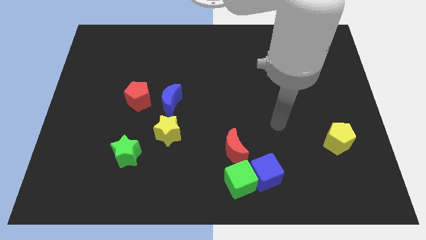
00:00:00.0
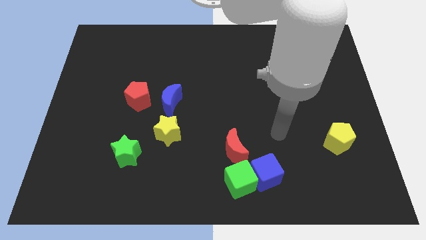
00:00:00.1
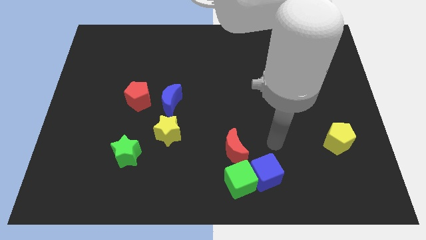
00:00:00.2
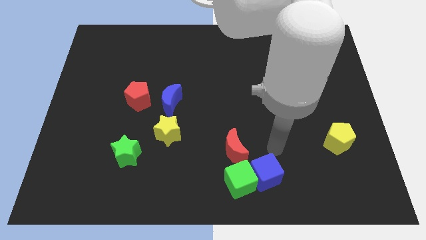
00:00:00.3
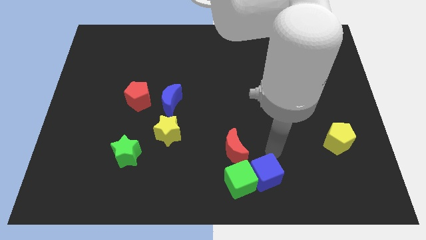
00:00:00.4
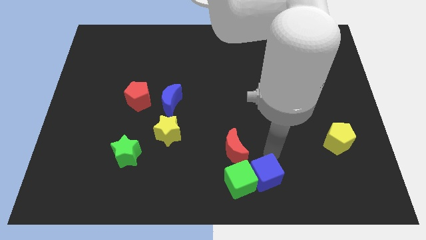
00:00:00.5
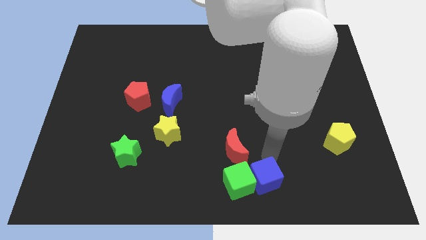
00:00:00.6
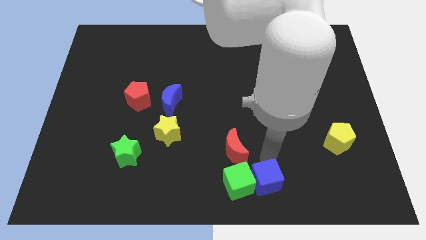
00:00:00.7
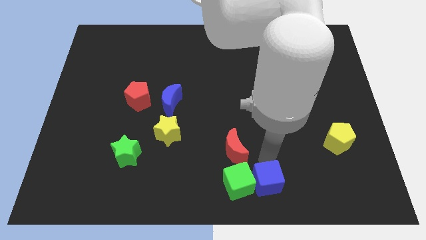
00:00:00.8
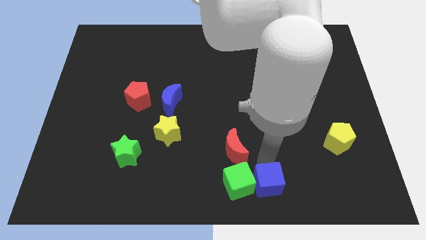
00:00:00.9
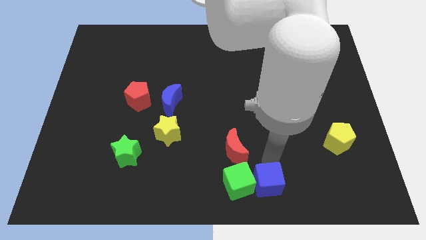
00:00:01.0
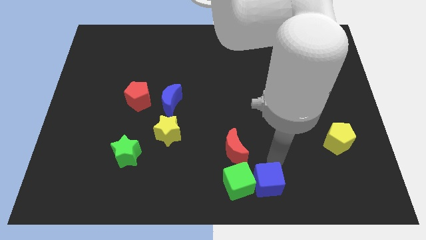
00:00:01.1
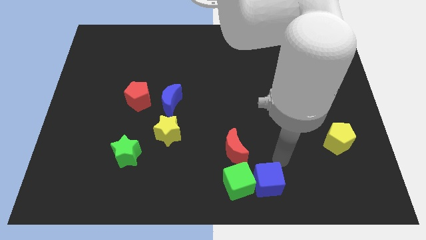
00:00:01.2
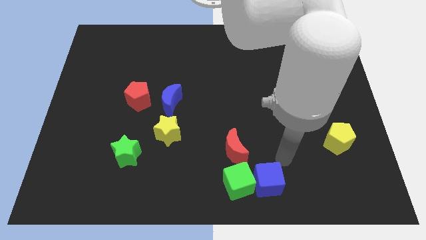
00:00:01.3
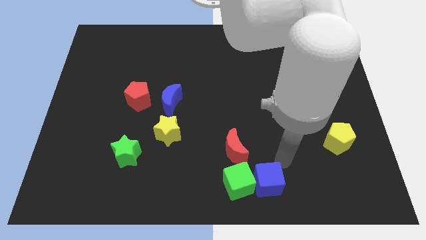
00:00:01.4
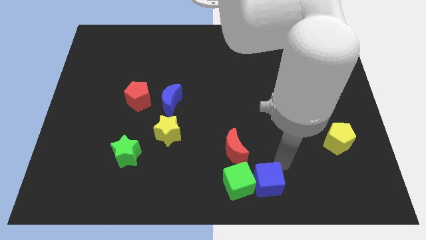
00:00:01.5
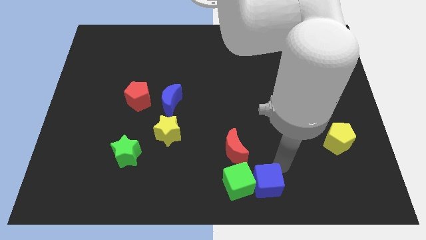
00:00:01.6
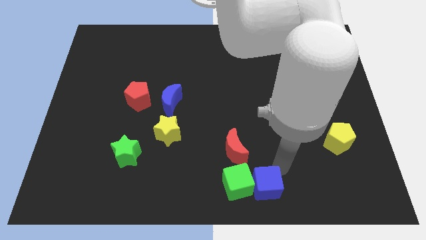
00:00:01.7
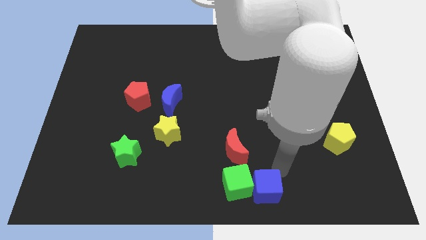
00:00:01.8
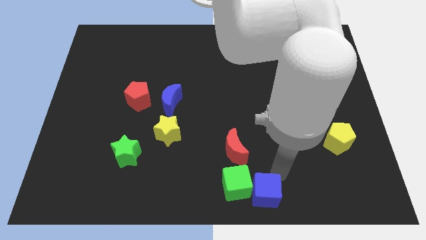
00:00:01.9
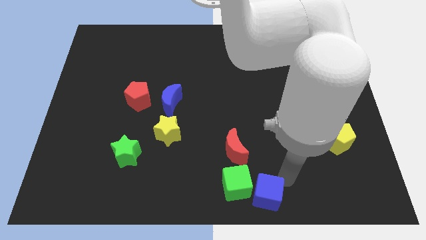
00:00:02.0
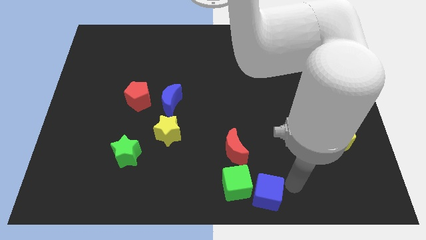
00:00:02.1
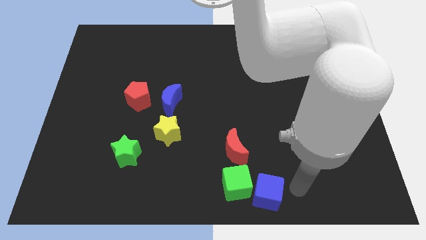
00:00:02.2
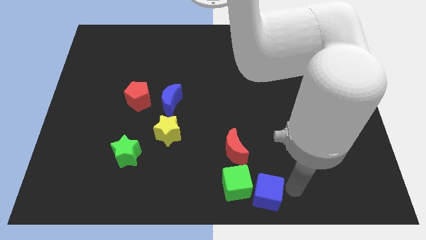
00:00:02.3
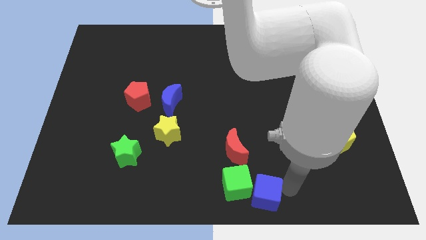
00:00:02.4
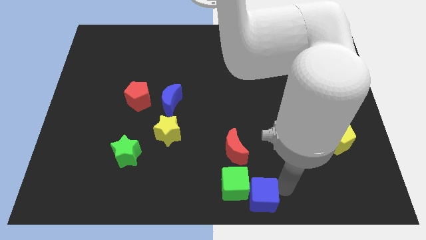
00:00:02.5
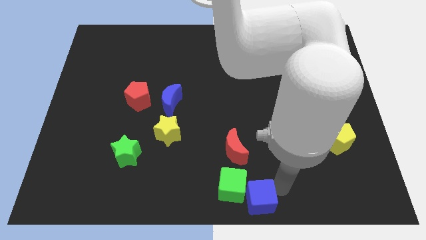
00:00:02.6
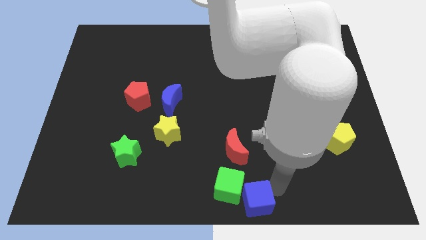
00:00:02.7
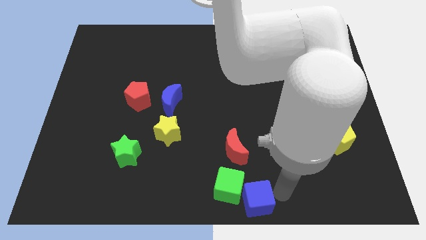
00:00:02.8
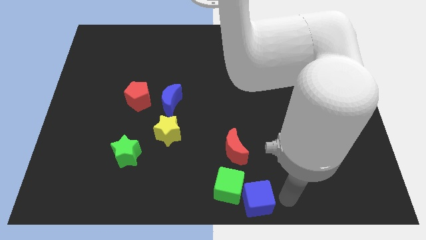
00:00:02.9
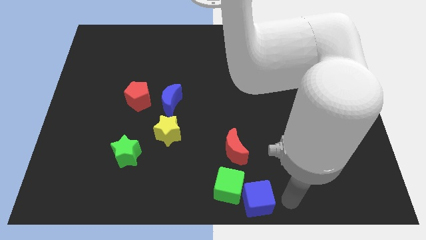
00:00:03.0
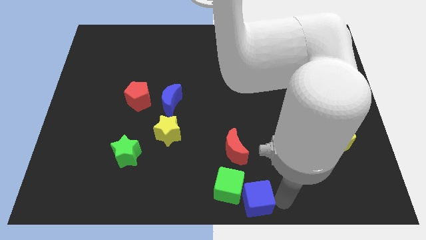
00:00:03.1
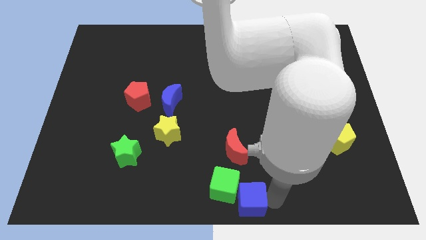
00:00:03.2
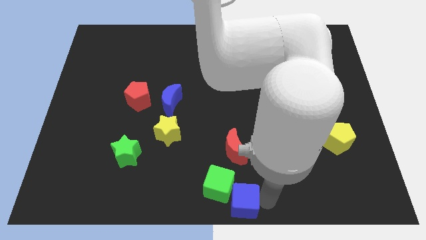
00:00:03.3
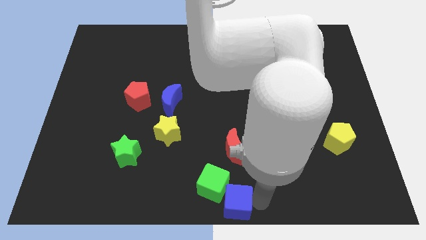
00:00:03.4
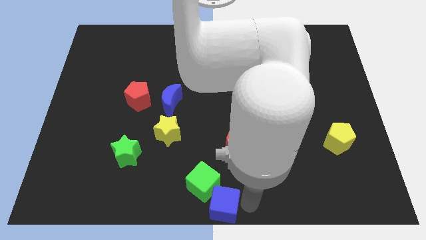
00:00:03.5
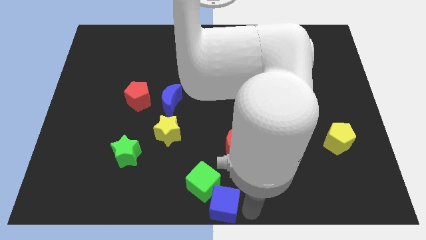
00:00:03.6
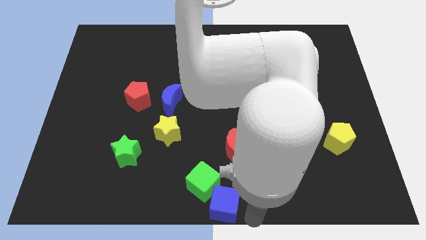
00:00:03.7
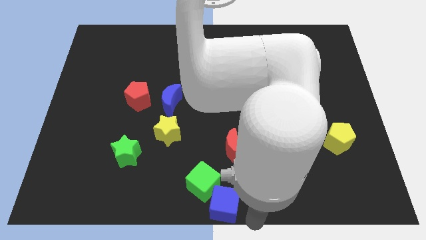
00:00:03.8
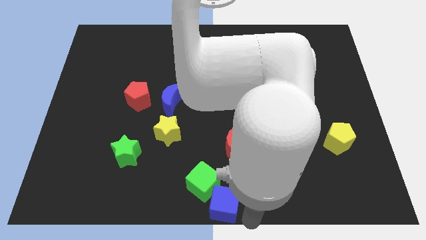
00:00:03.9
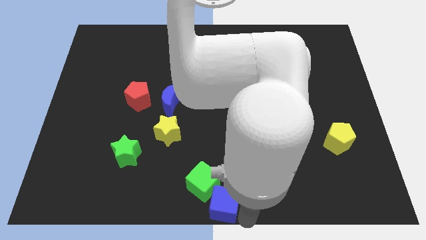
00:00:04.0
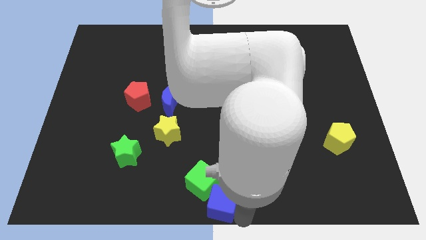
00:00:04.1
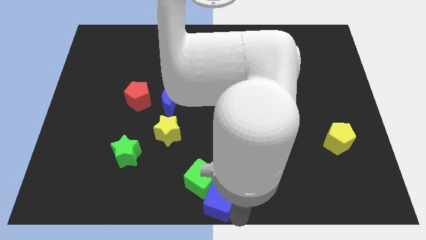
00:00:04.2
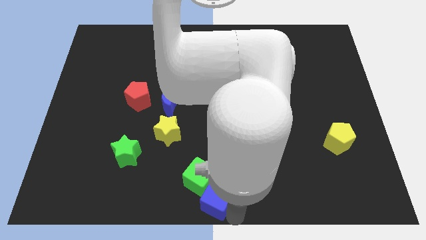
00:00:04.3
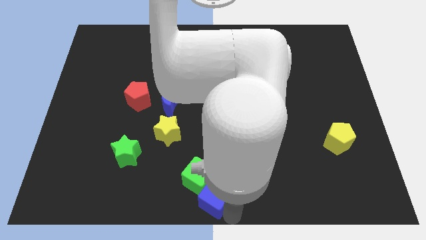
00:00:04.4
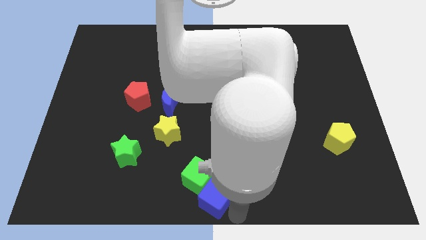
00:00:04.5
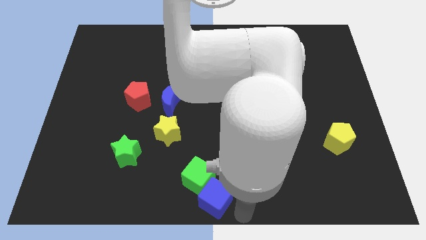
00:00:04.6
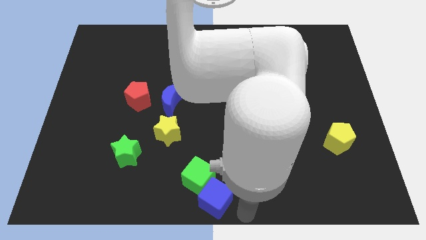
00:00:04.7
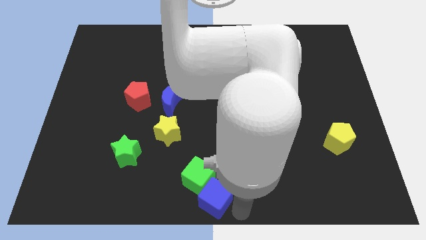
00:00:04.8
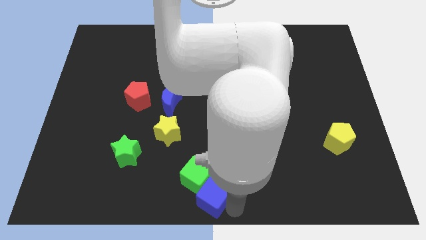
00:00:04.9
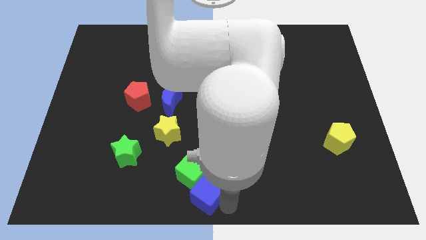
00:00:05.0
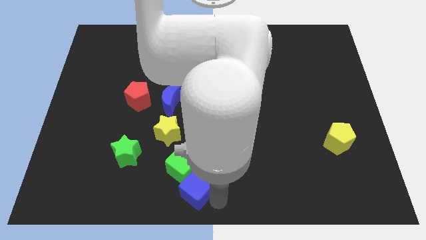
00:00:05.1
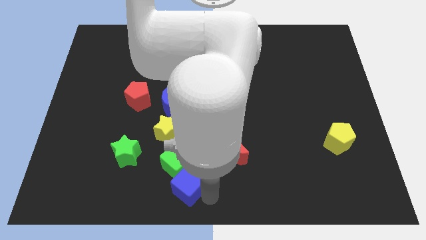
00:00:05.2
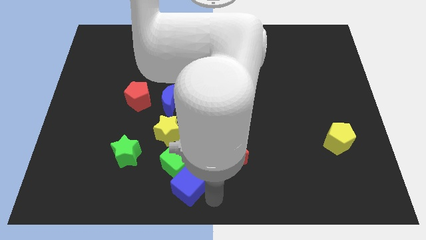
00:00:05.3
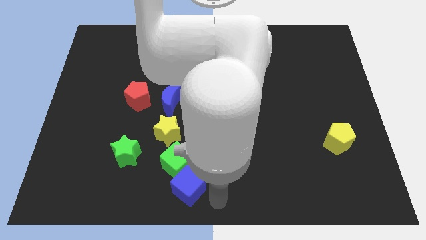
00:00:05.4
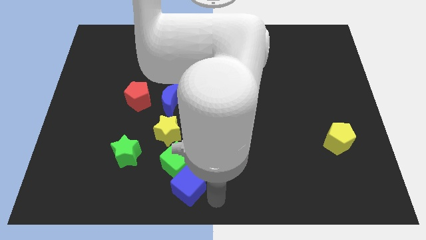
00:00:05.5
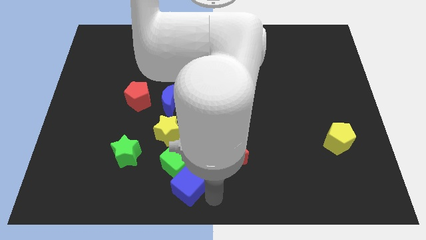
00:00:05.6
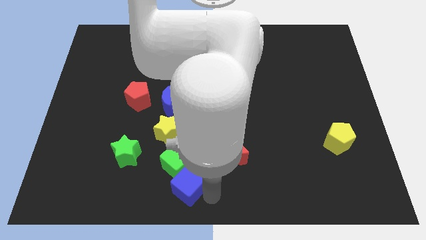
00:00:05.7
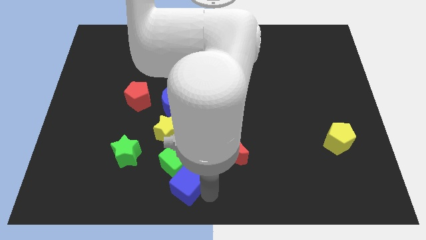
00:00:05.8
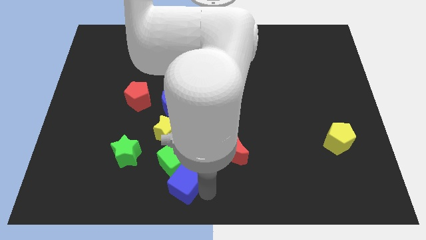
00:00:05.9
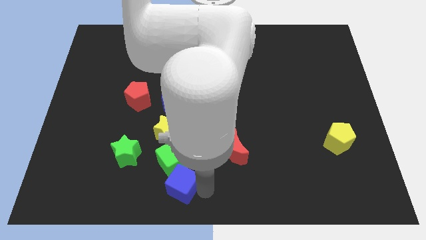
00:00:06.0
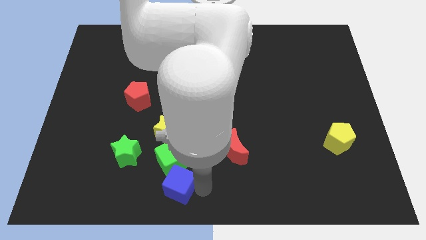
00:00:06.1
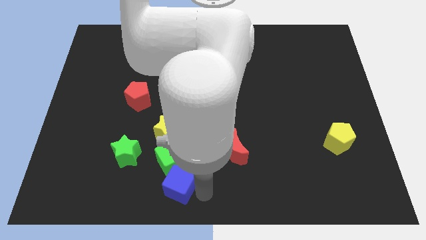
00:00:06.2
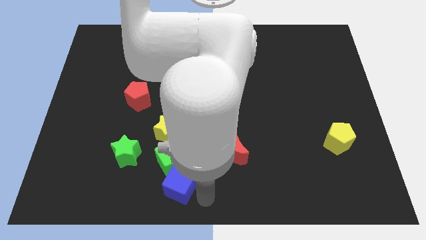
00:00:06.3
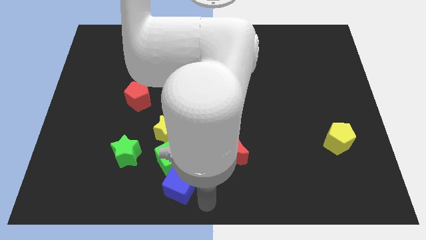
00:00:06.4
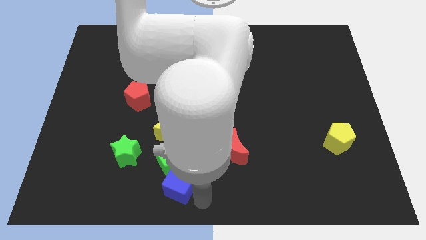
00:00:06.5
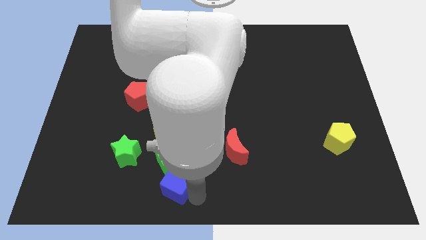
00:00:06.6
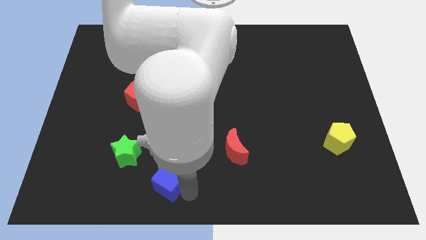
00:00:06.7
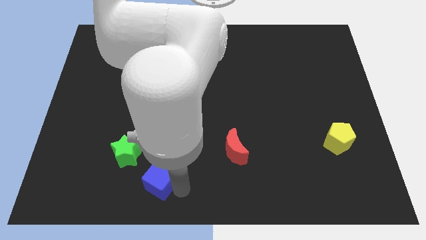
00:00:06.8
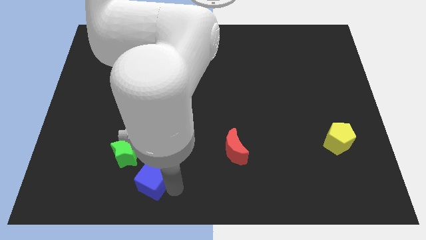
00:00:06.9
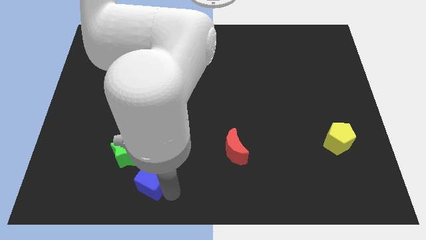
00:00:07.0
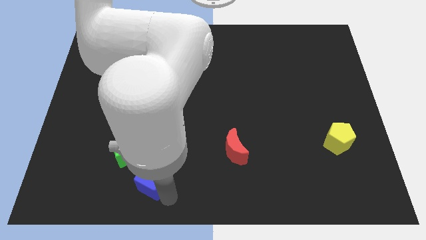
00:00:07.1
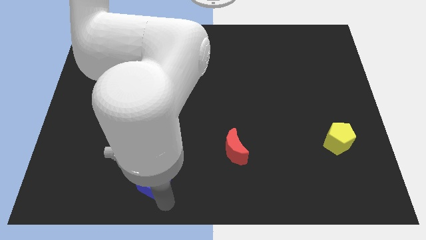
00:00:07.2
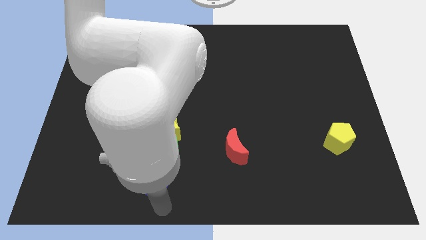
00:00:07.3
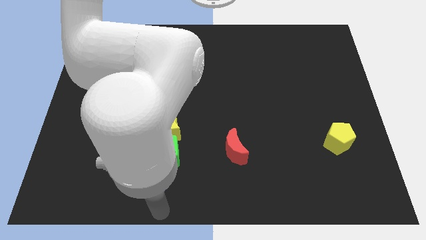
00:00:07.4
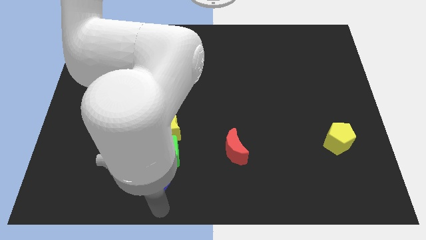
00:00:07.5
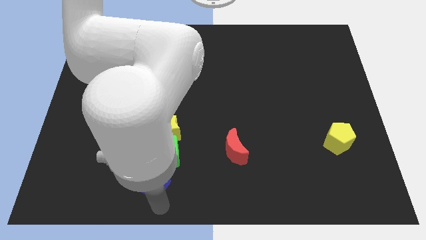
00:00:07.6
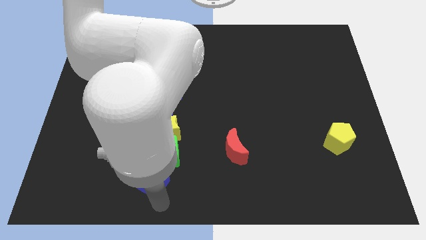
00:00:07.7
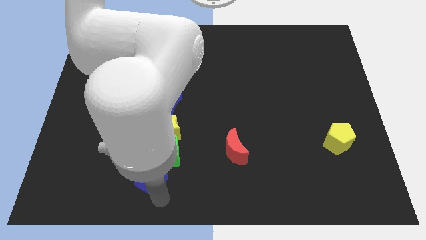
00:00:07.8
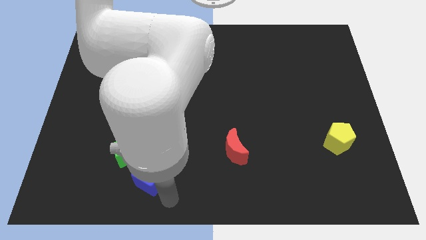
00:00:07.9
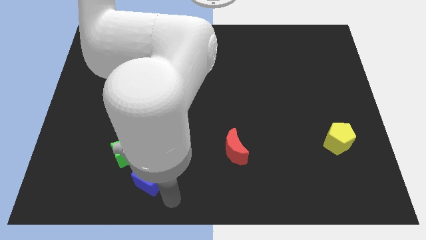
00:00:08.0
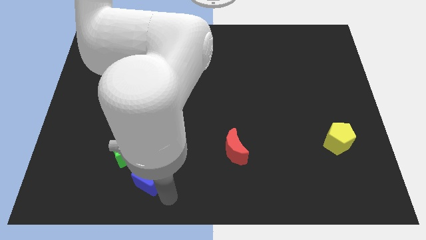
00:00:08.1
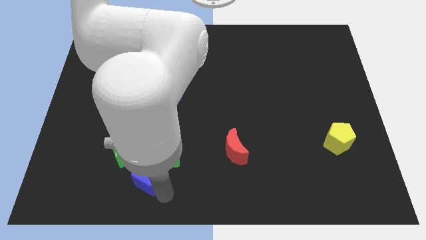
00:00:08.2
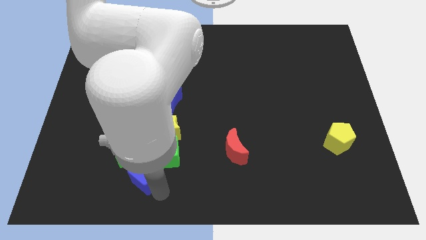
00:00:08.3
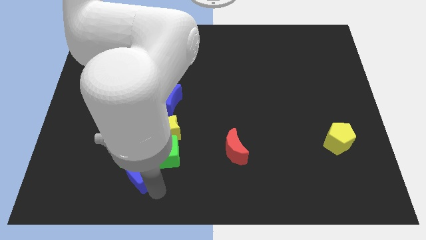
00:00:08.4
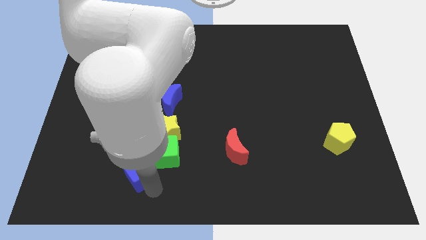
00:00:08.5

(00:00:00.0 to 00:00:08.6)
move the blue cube to the green star
